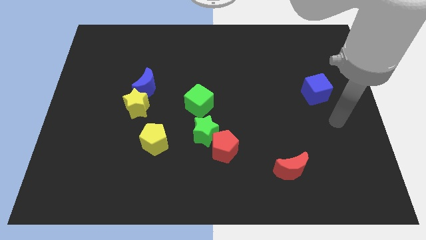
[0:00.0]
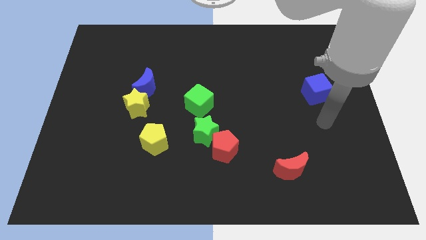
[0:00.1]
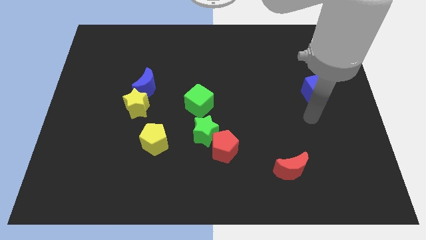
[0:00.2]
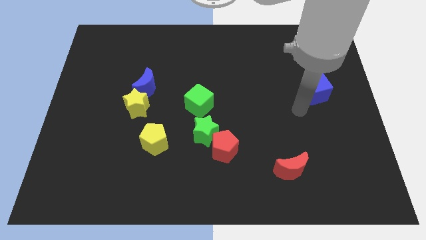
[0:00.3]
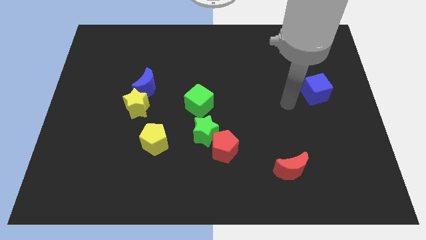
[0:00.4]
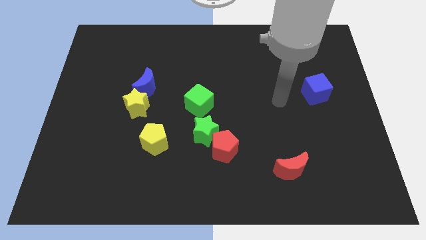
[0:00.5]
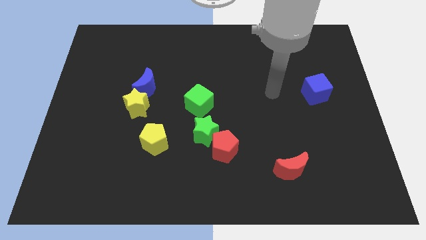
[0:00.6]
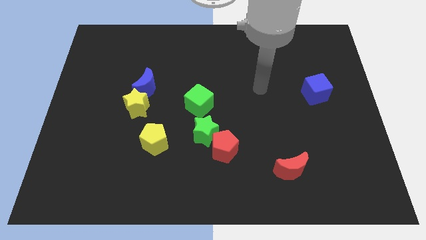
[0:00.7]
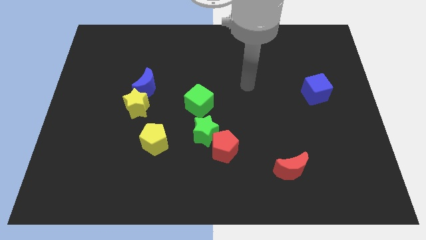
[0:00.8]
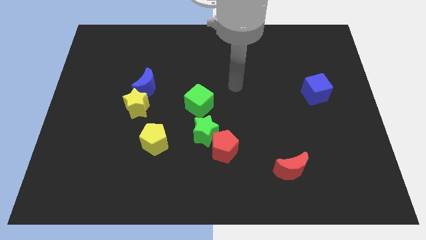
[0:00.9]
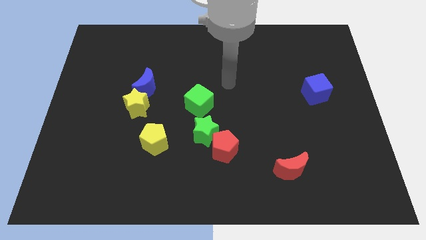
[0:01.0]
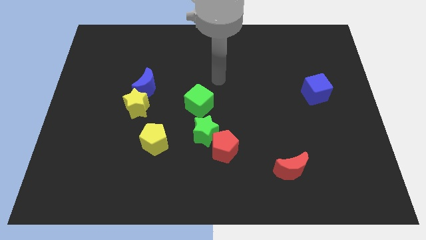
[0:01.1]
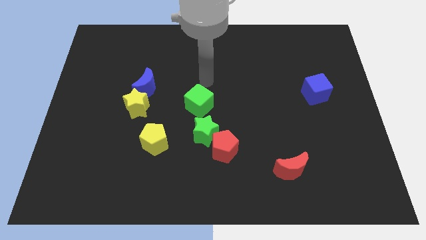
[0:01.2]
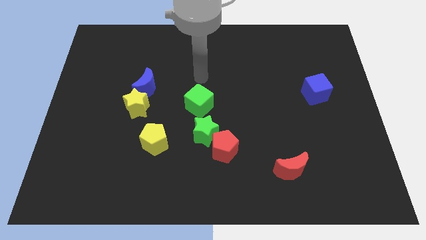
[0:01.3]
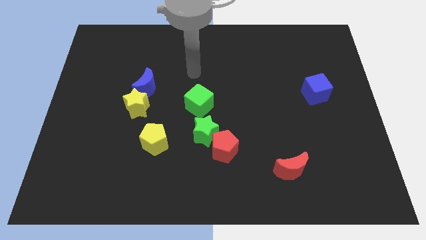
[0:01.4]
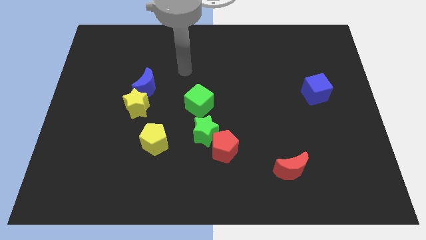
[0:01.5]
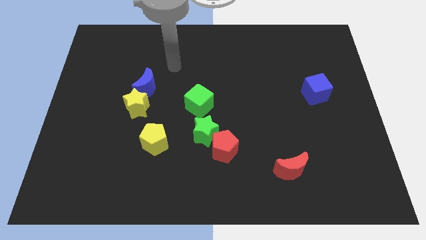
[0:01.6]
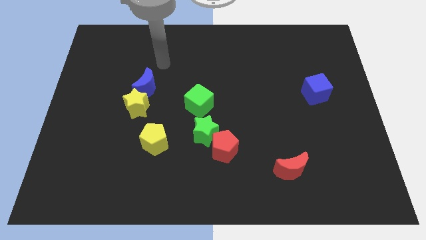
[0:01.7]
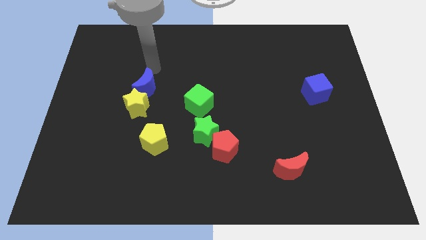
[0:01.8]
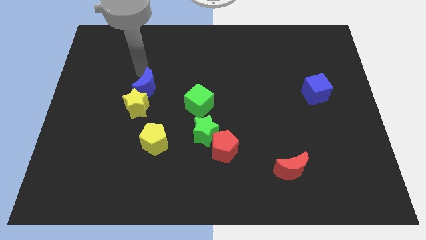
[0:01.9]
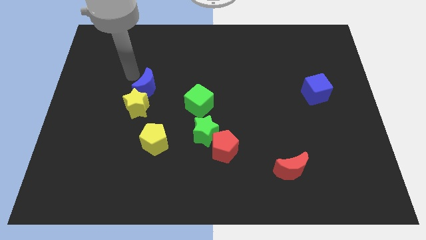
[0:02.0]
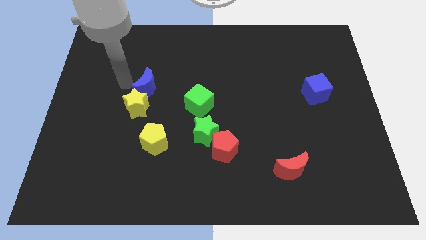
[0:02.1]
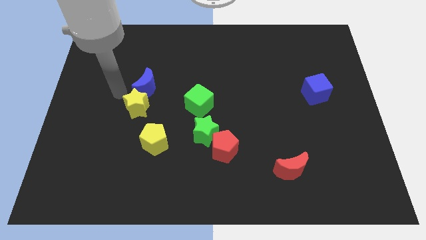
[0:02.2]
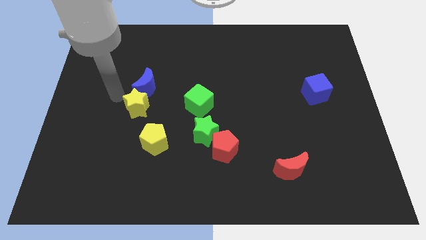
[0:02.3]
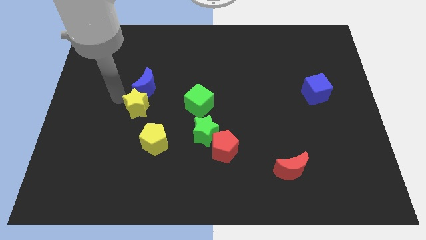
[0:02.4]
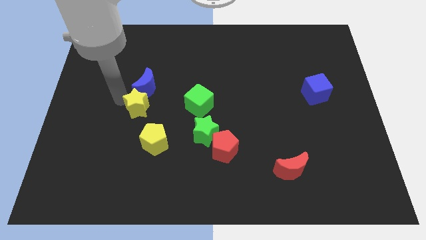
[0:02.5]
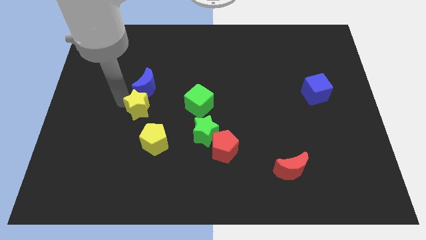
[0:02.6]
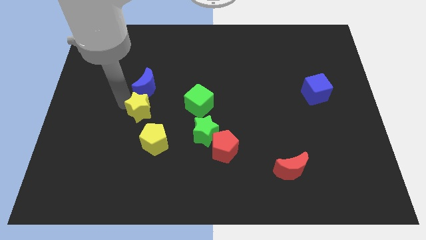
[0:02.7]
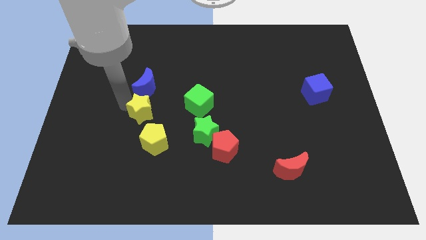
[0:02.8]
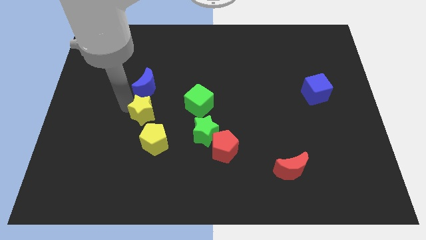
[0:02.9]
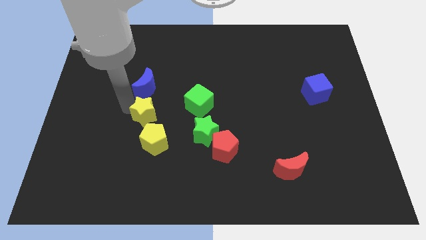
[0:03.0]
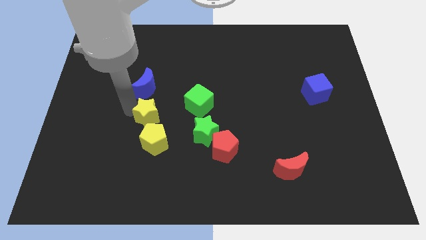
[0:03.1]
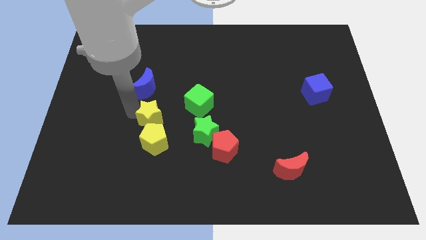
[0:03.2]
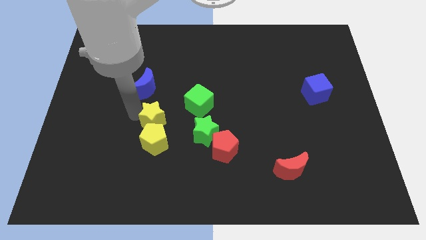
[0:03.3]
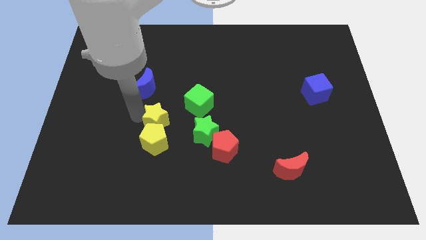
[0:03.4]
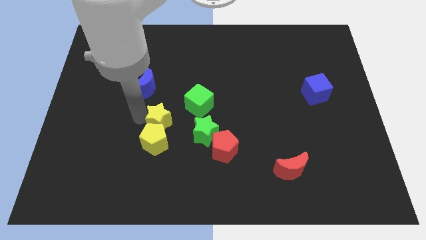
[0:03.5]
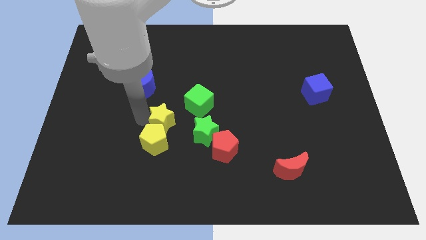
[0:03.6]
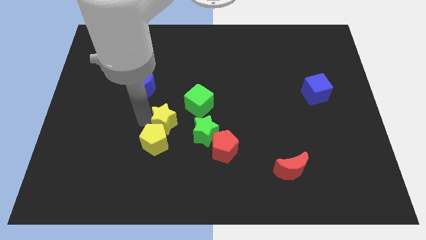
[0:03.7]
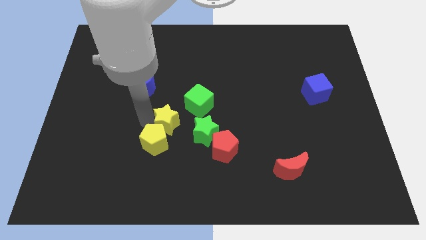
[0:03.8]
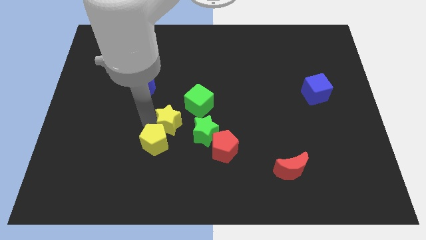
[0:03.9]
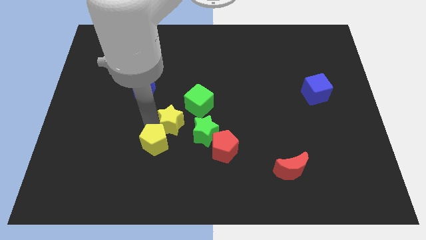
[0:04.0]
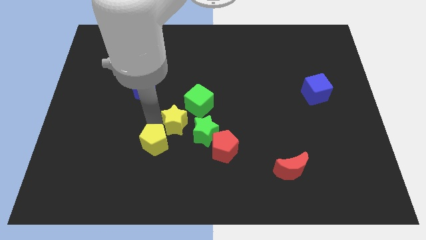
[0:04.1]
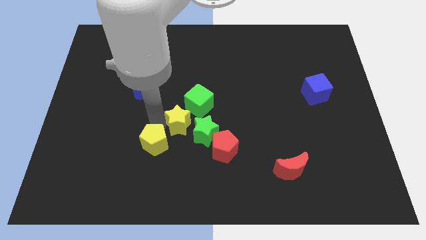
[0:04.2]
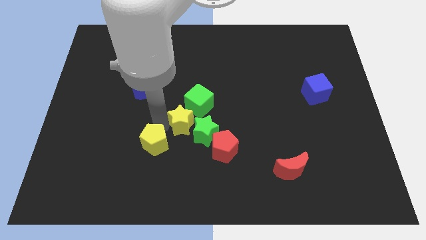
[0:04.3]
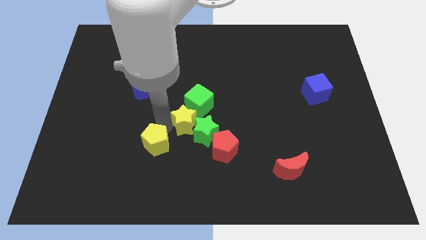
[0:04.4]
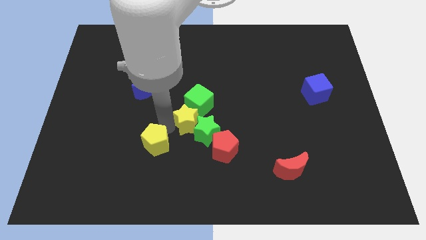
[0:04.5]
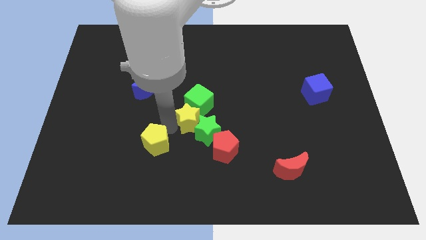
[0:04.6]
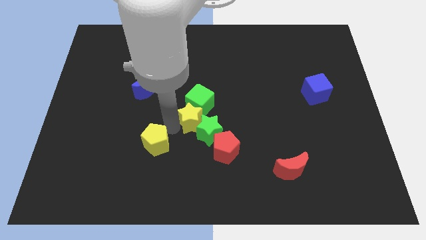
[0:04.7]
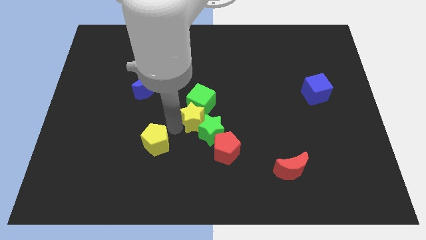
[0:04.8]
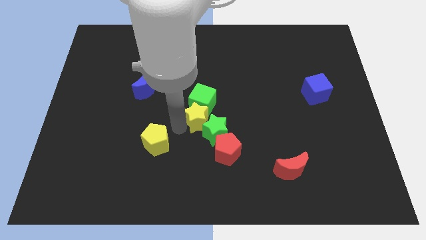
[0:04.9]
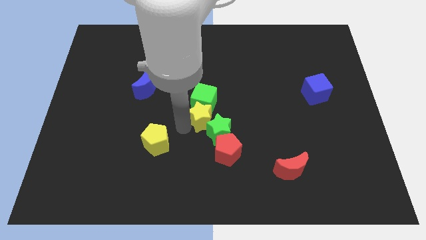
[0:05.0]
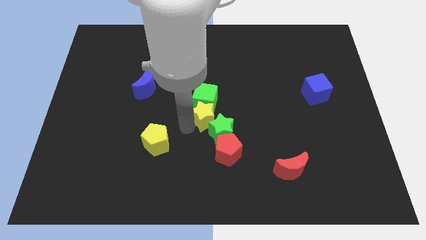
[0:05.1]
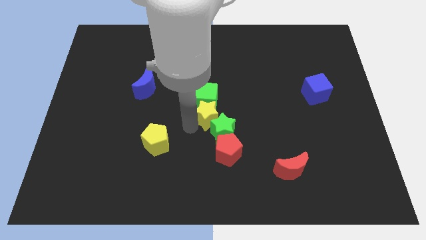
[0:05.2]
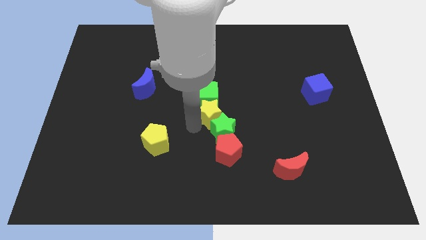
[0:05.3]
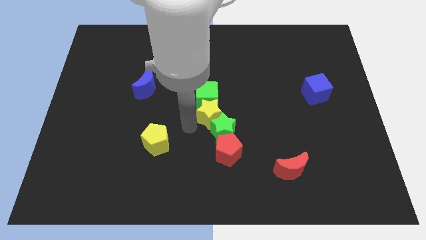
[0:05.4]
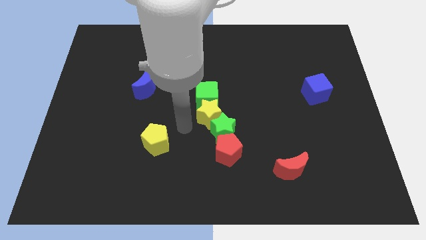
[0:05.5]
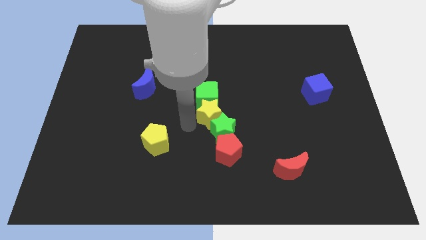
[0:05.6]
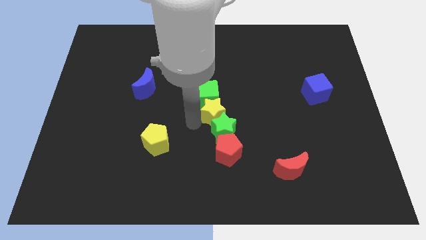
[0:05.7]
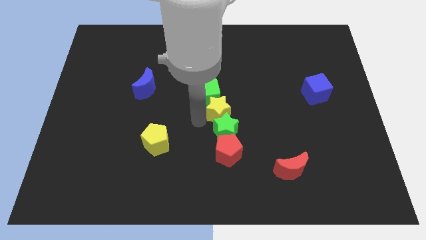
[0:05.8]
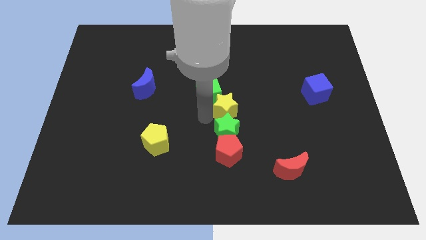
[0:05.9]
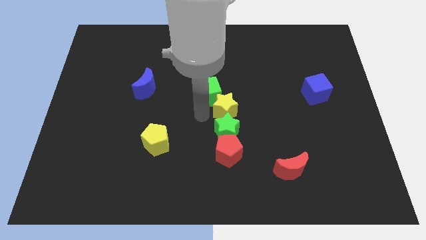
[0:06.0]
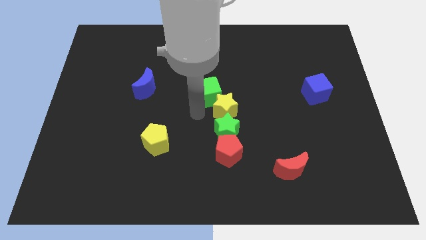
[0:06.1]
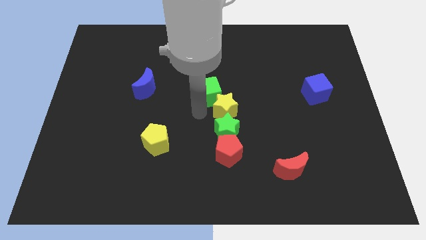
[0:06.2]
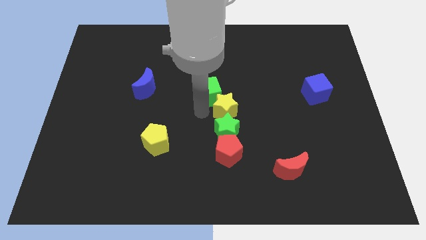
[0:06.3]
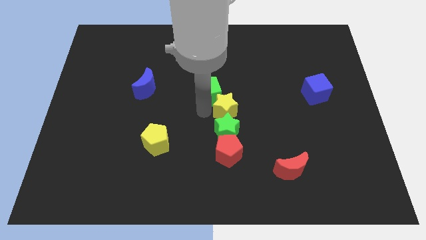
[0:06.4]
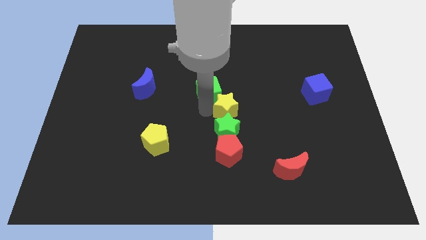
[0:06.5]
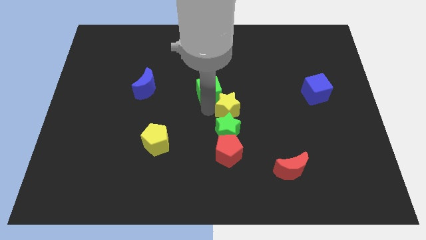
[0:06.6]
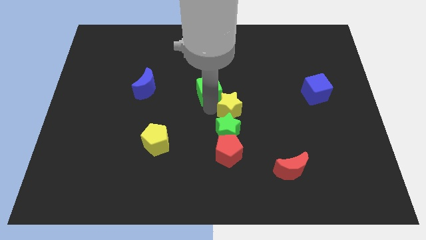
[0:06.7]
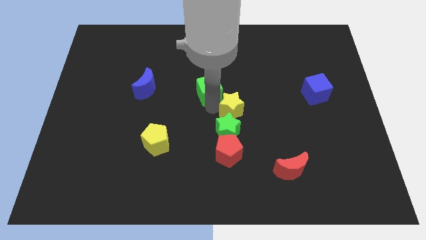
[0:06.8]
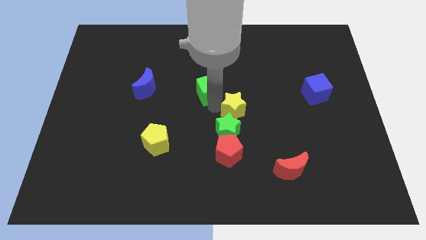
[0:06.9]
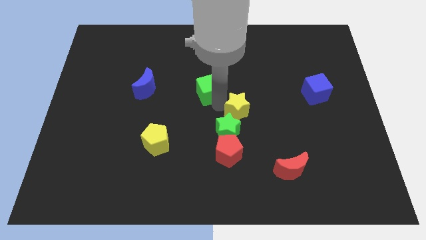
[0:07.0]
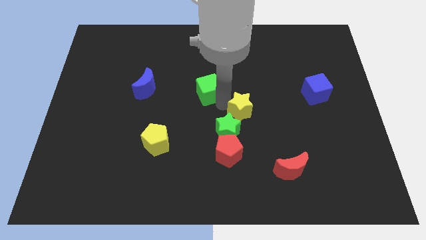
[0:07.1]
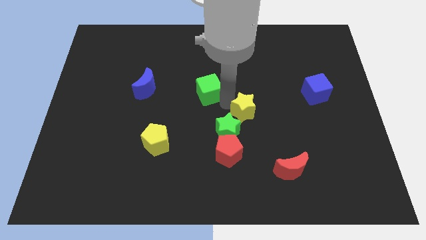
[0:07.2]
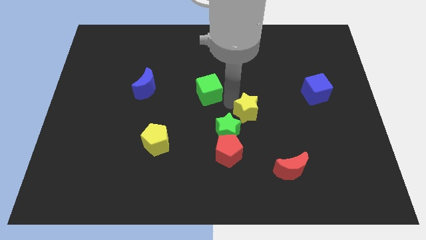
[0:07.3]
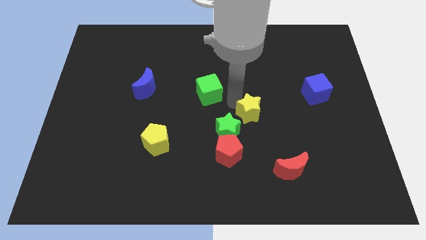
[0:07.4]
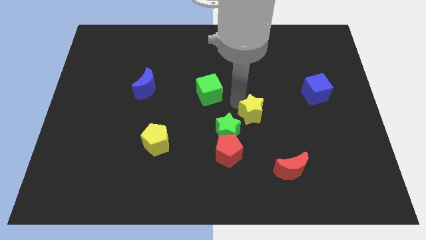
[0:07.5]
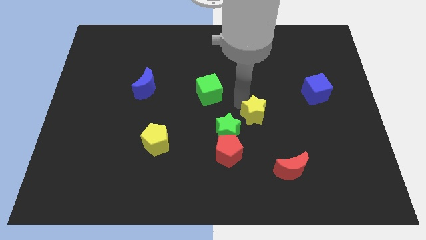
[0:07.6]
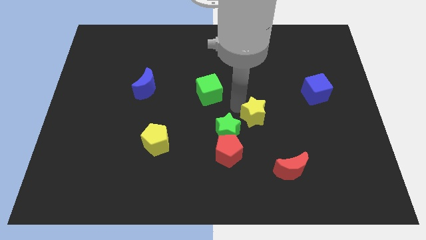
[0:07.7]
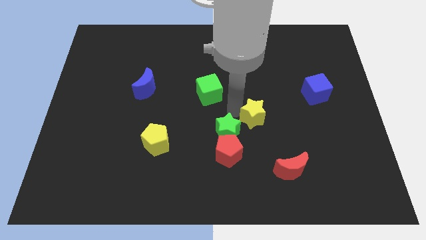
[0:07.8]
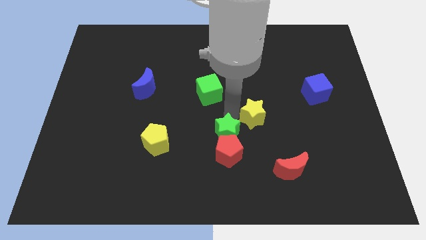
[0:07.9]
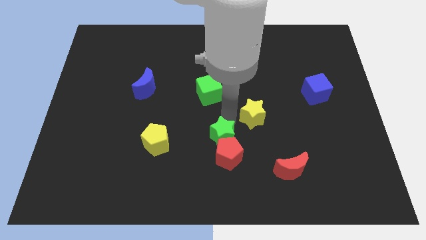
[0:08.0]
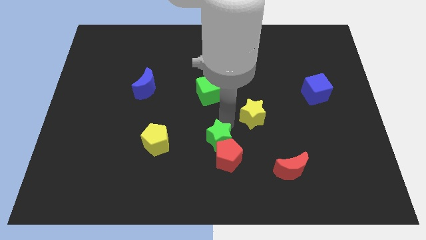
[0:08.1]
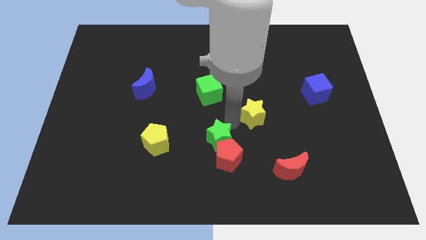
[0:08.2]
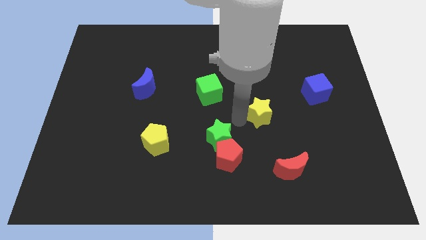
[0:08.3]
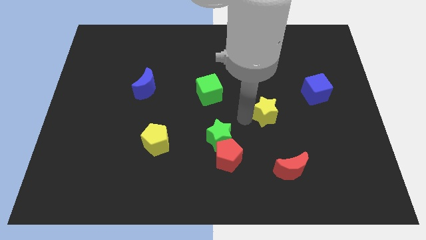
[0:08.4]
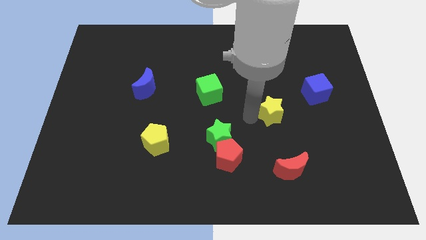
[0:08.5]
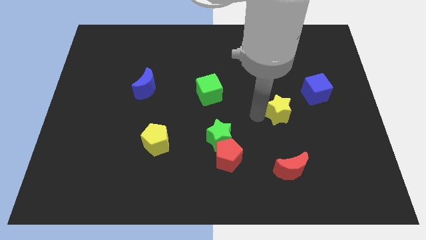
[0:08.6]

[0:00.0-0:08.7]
slide the yellow star diagonally down and to the left of the blue cube
